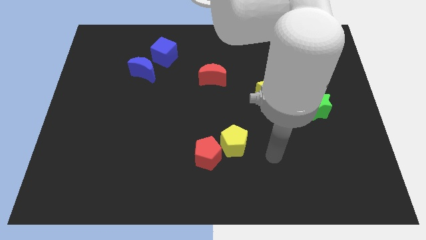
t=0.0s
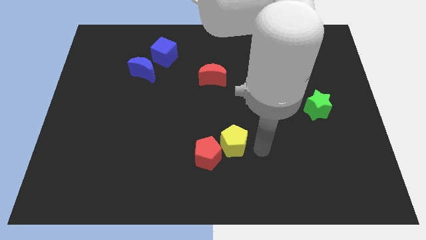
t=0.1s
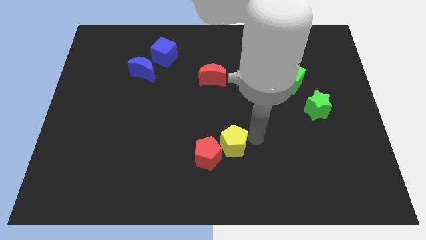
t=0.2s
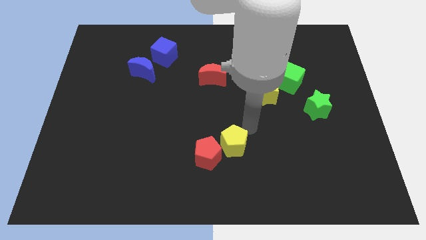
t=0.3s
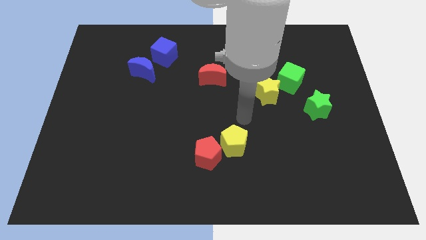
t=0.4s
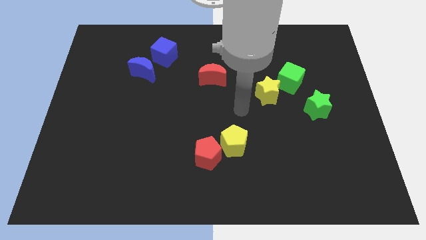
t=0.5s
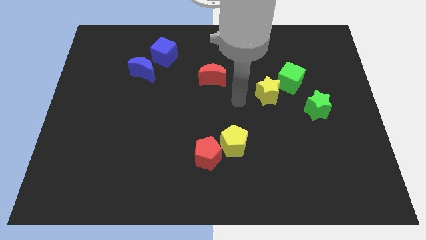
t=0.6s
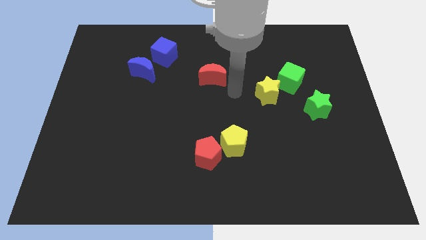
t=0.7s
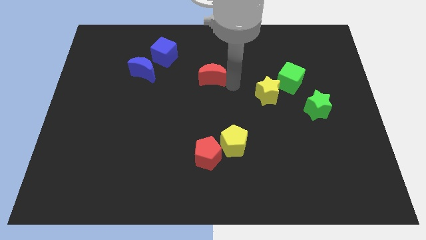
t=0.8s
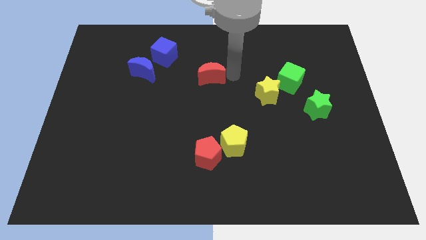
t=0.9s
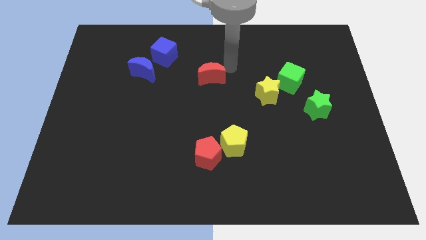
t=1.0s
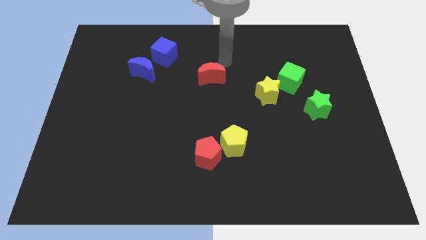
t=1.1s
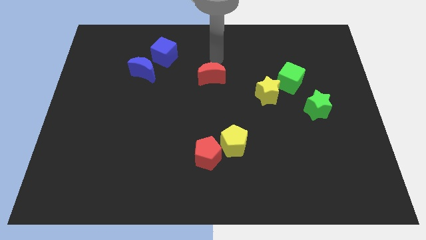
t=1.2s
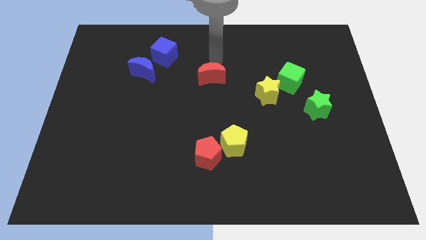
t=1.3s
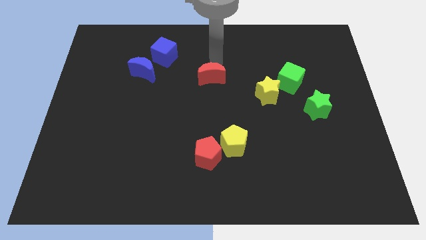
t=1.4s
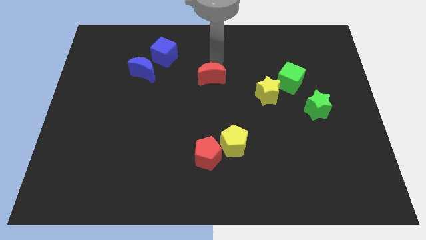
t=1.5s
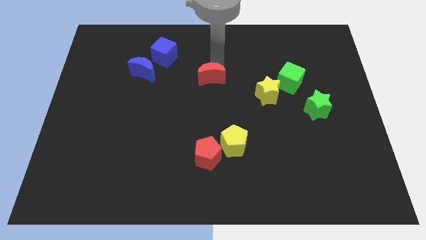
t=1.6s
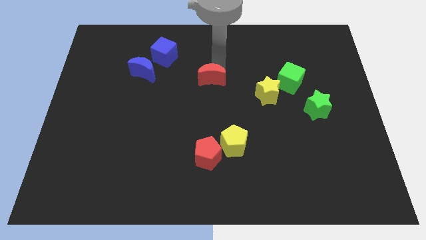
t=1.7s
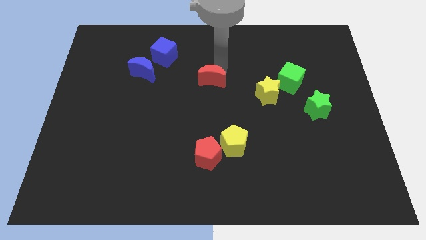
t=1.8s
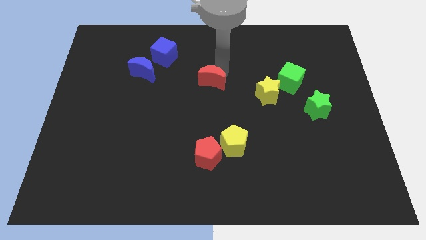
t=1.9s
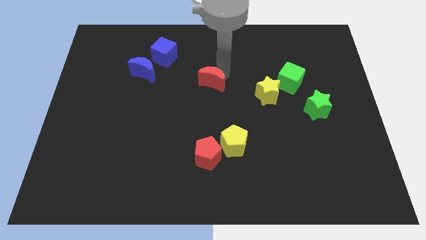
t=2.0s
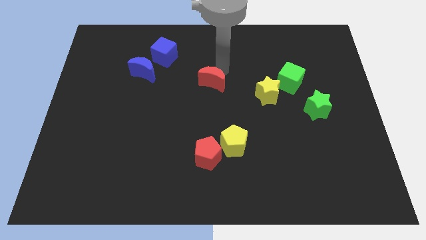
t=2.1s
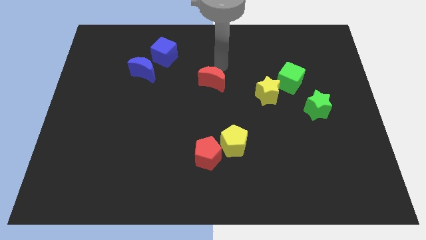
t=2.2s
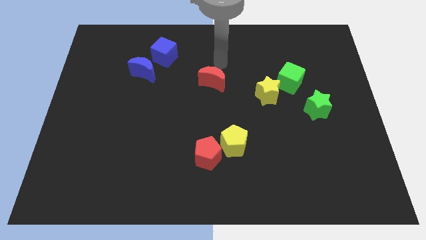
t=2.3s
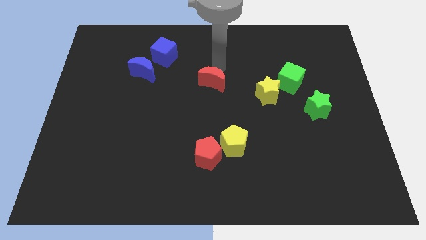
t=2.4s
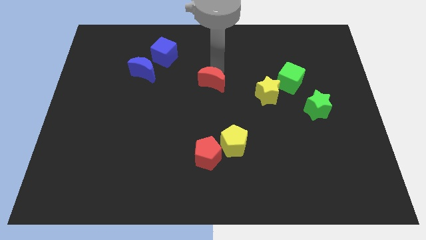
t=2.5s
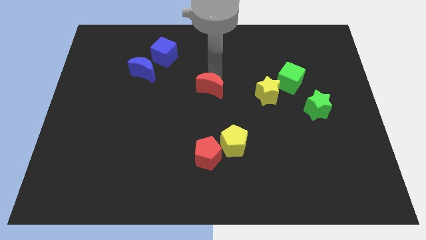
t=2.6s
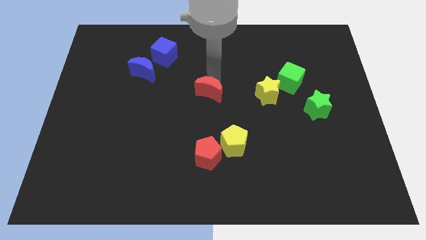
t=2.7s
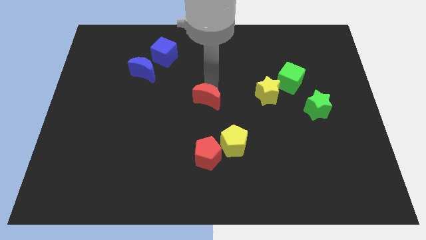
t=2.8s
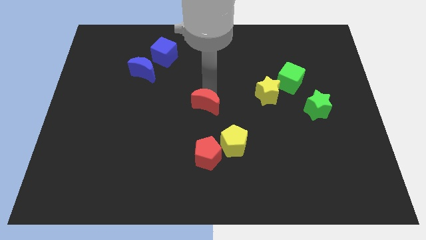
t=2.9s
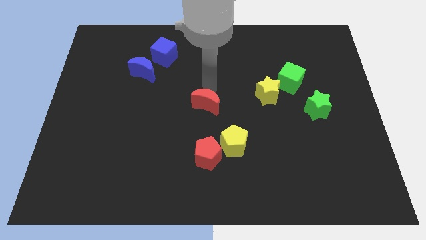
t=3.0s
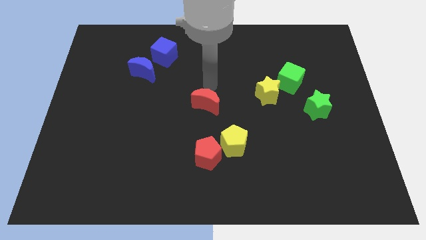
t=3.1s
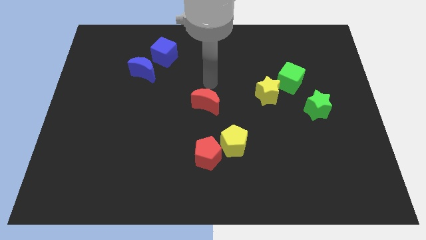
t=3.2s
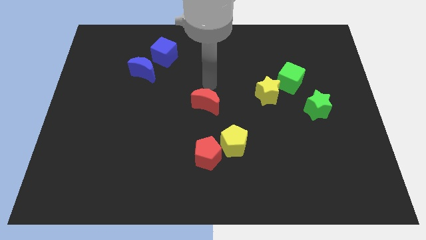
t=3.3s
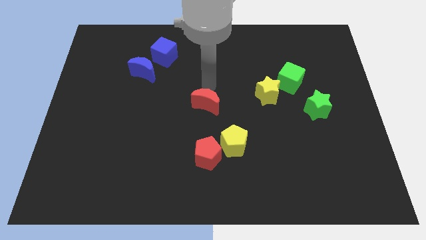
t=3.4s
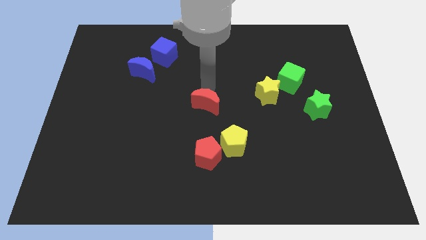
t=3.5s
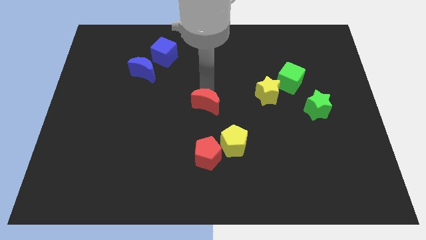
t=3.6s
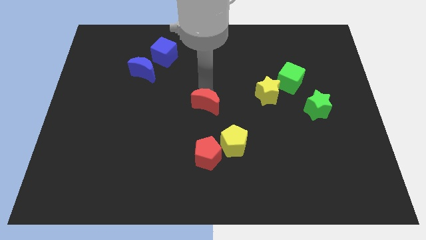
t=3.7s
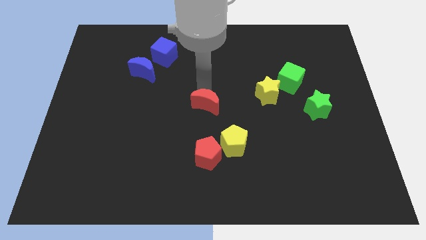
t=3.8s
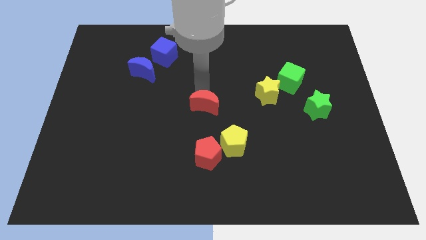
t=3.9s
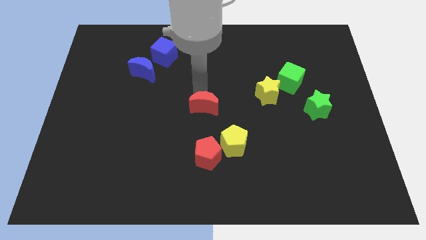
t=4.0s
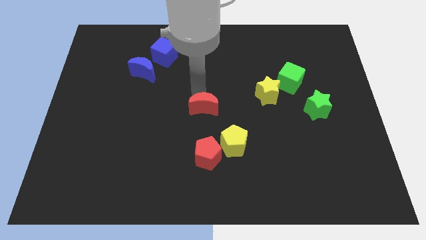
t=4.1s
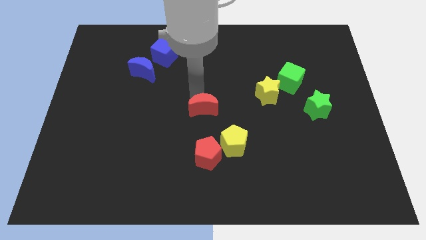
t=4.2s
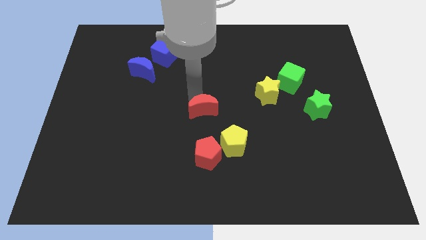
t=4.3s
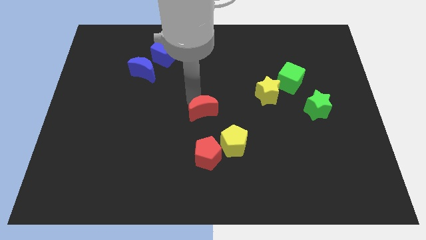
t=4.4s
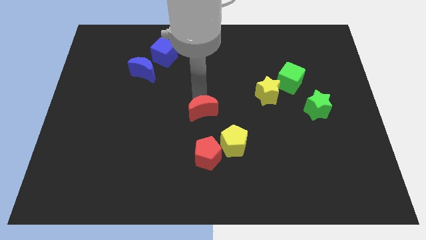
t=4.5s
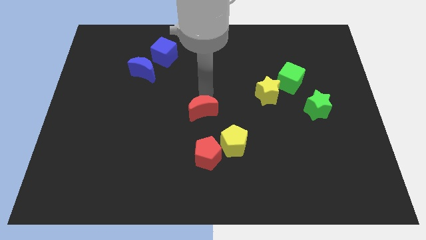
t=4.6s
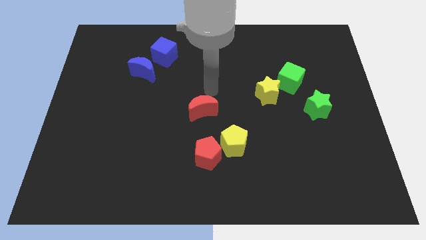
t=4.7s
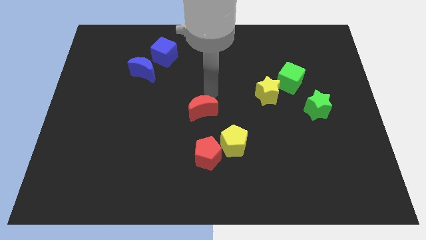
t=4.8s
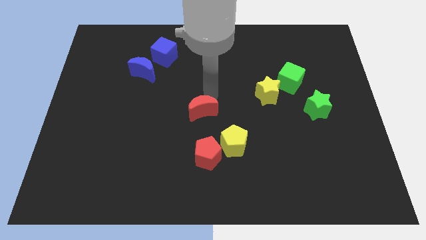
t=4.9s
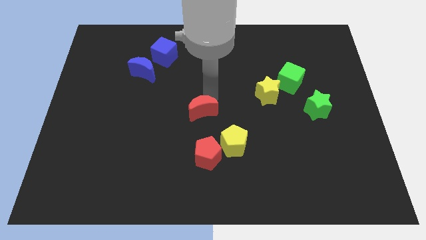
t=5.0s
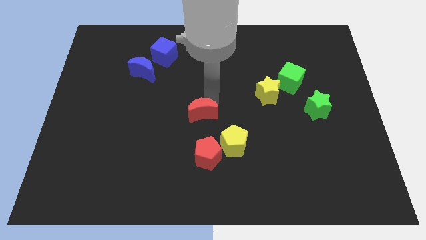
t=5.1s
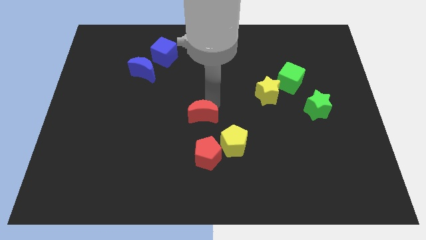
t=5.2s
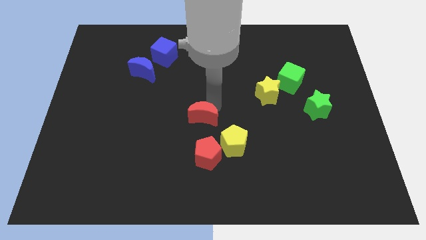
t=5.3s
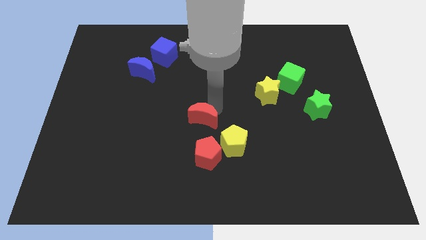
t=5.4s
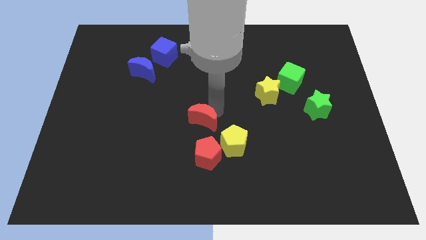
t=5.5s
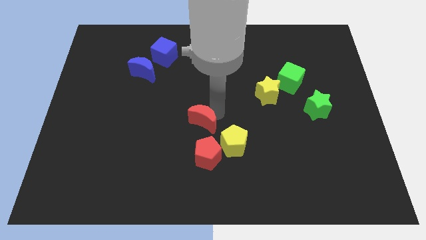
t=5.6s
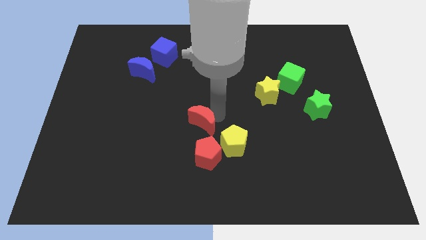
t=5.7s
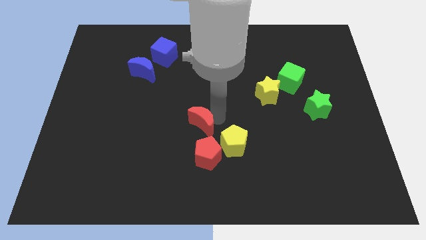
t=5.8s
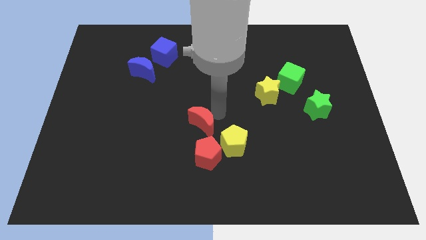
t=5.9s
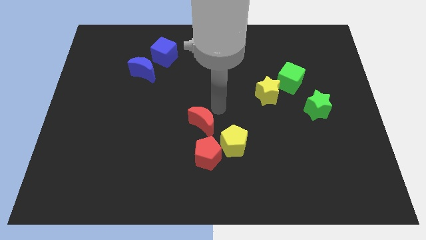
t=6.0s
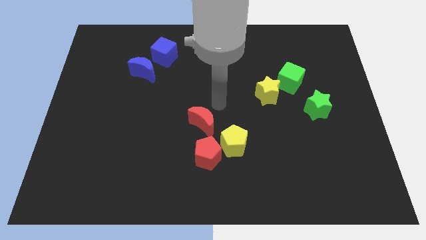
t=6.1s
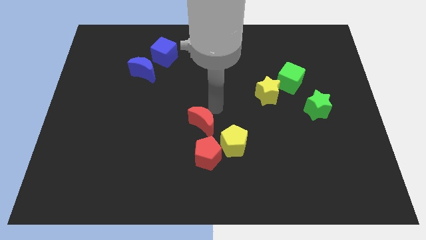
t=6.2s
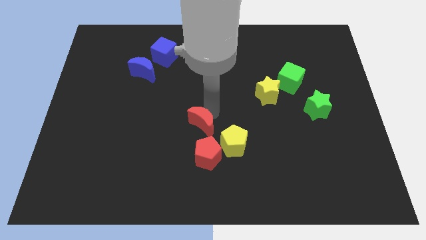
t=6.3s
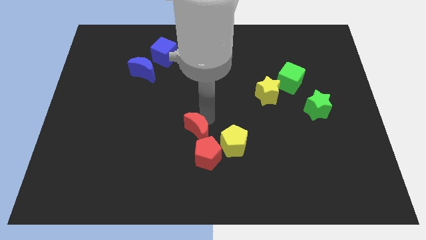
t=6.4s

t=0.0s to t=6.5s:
push the red moon to the left of the yellow pentagon

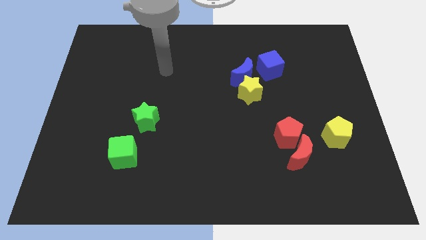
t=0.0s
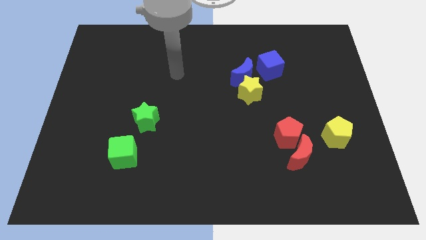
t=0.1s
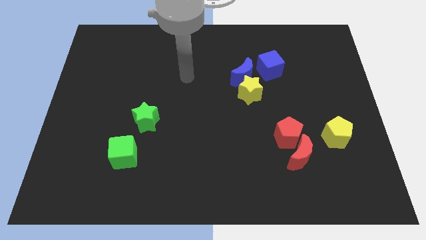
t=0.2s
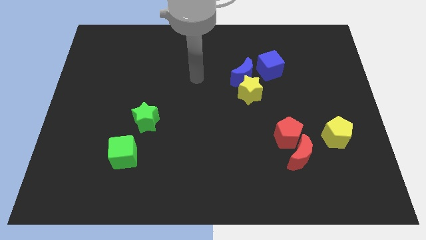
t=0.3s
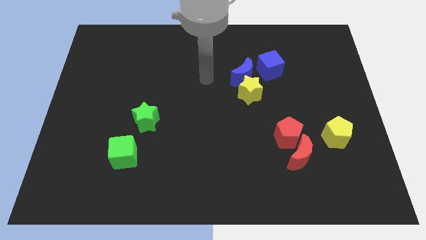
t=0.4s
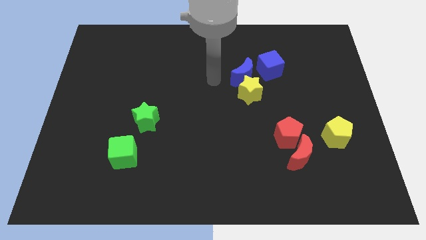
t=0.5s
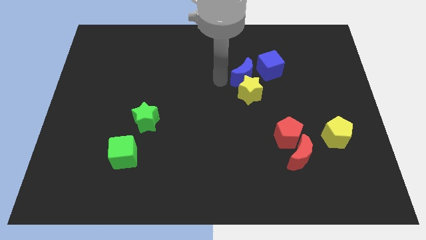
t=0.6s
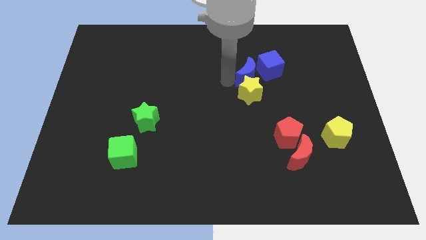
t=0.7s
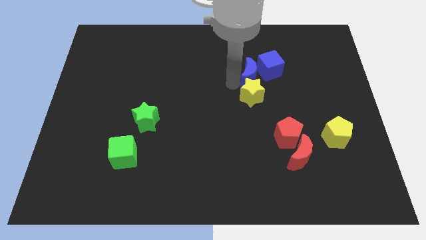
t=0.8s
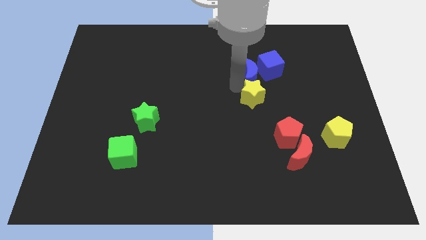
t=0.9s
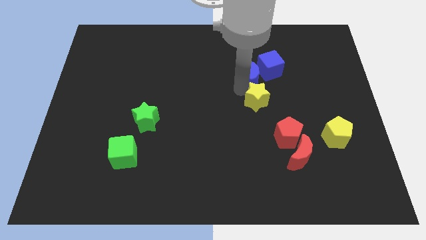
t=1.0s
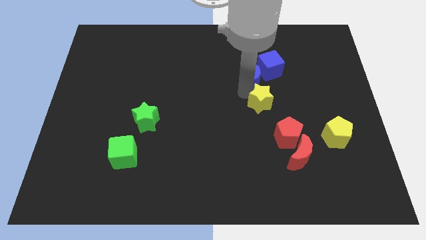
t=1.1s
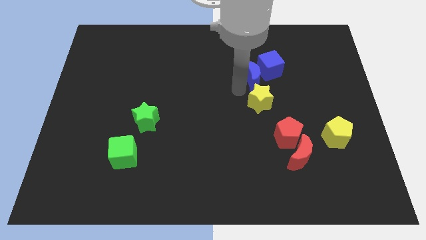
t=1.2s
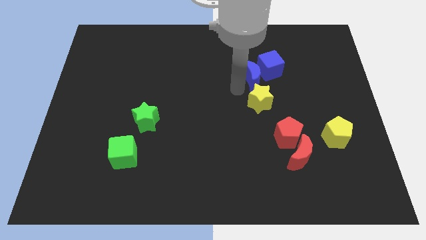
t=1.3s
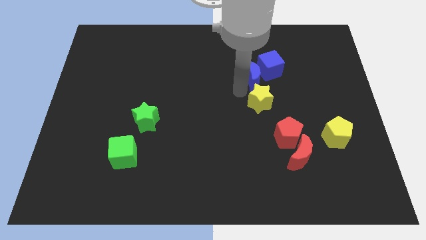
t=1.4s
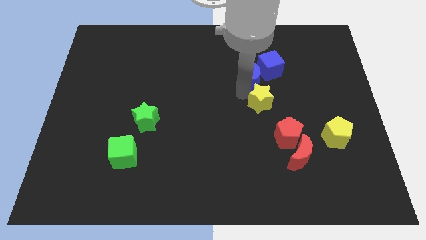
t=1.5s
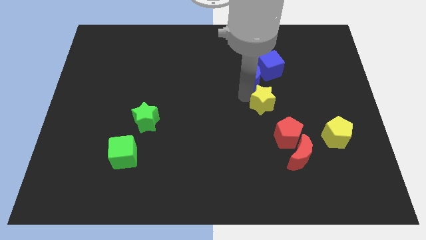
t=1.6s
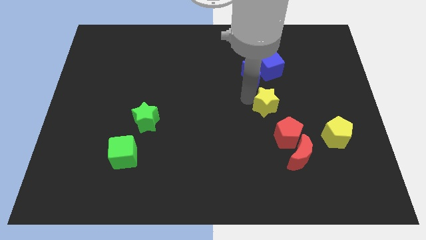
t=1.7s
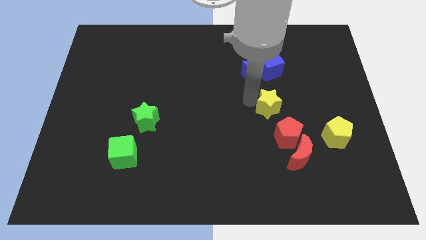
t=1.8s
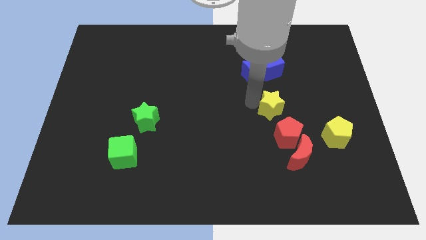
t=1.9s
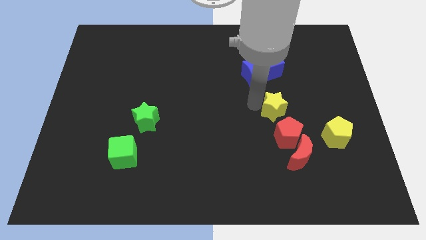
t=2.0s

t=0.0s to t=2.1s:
move the yellow star to the top of the red moon
